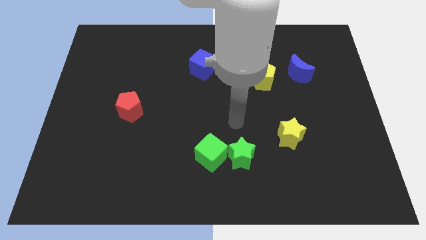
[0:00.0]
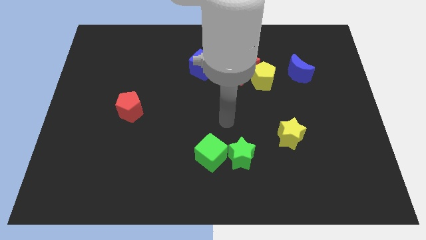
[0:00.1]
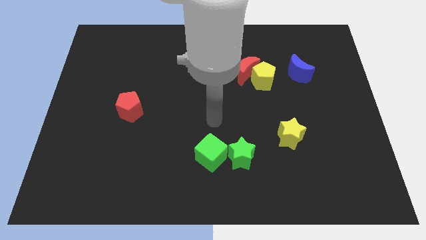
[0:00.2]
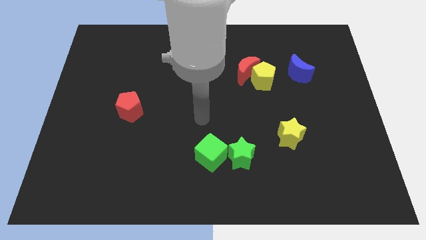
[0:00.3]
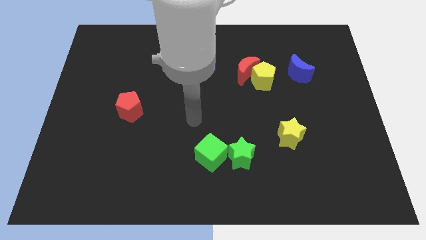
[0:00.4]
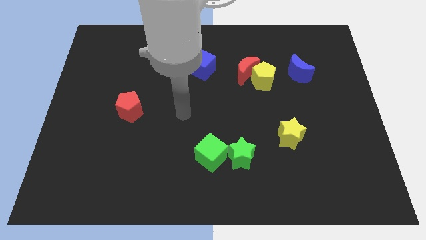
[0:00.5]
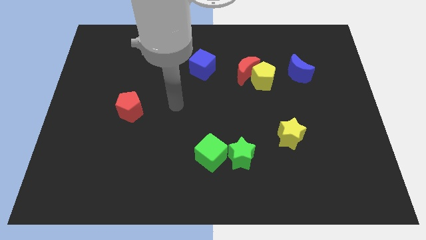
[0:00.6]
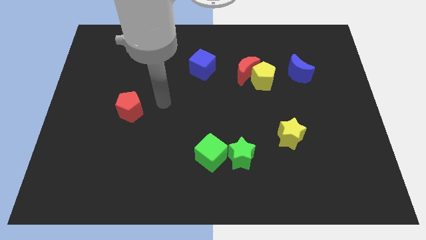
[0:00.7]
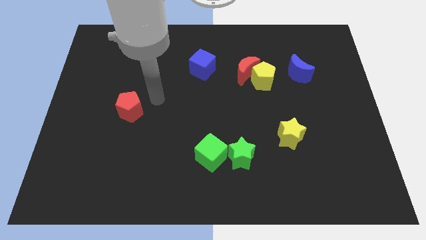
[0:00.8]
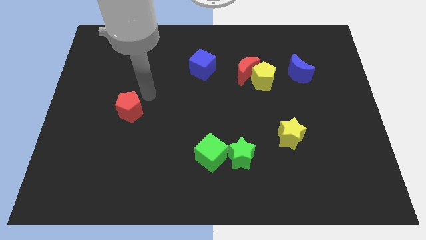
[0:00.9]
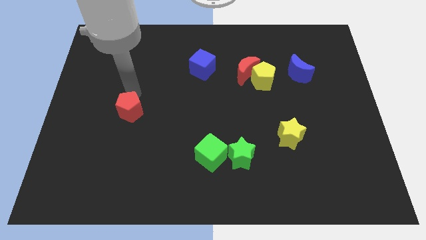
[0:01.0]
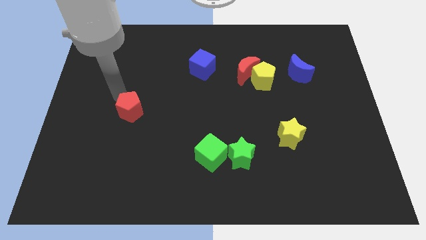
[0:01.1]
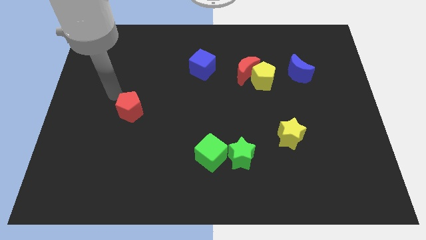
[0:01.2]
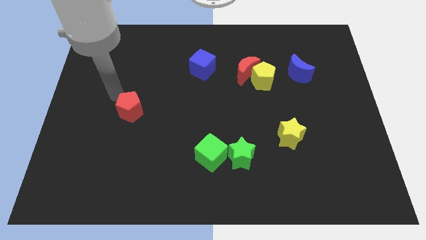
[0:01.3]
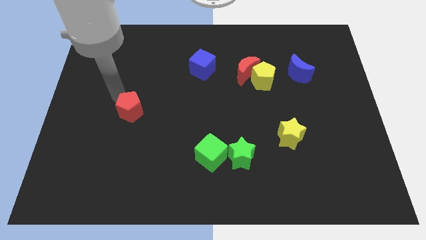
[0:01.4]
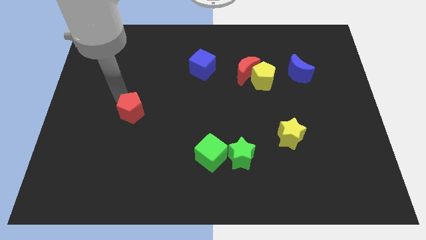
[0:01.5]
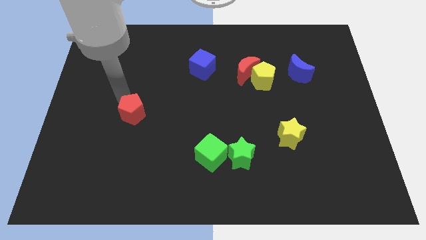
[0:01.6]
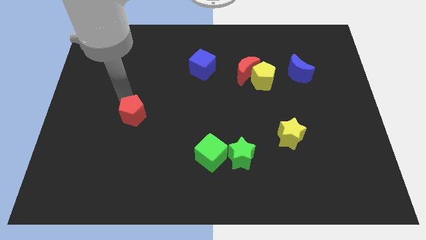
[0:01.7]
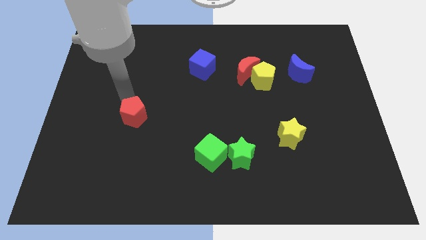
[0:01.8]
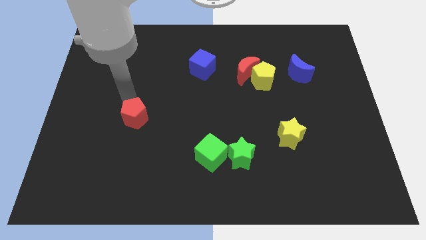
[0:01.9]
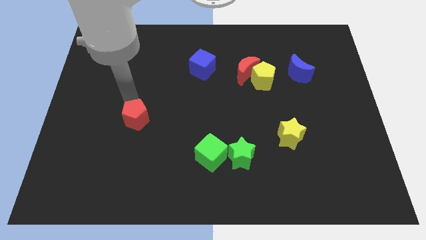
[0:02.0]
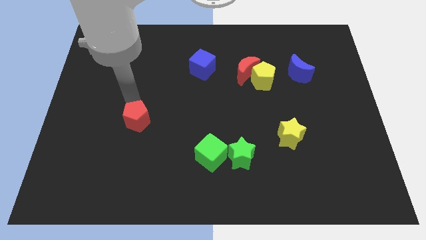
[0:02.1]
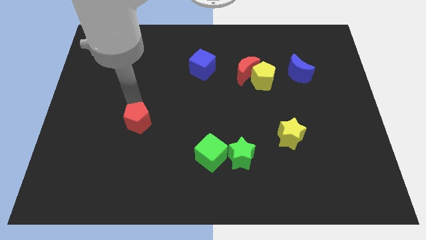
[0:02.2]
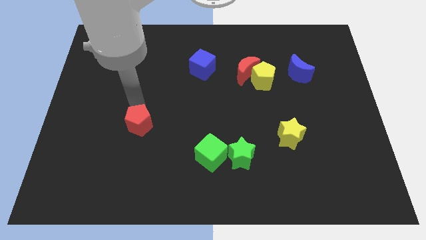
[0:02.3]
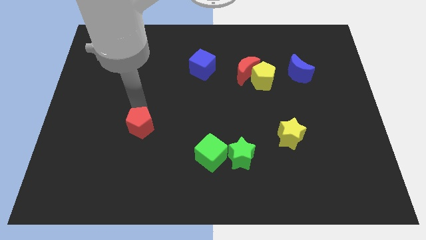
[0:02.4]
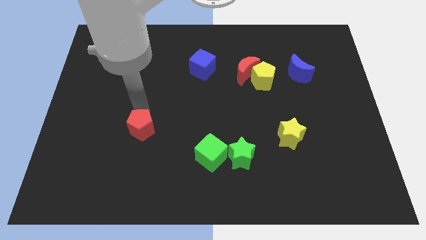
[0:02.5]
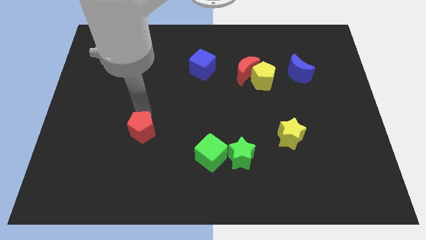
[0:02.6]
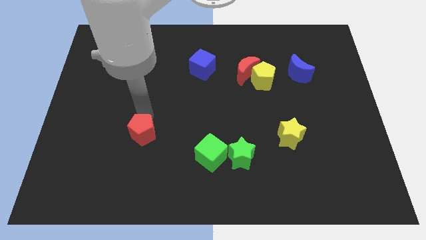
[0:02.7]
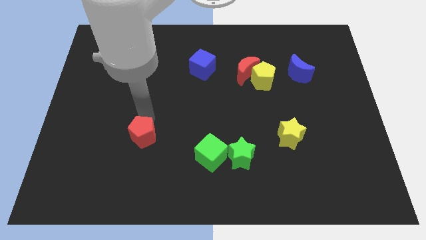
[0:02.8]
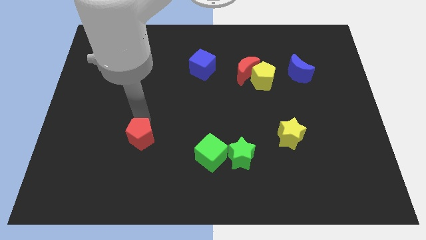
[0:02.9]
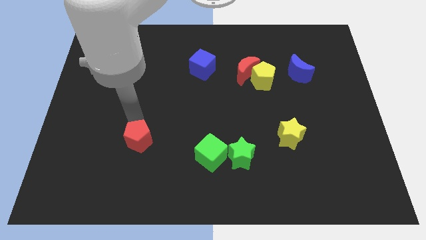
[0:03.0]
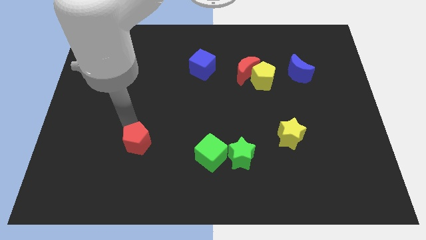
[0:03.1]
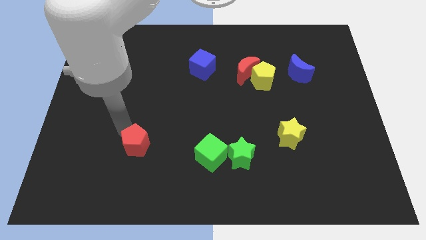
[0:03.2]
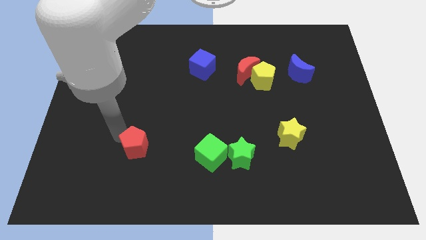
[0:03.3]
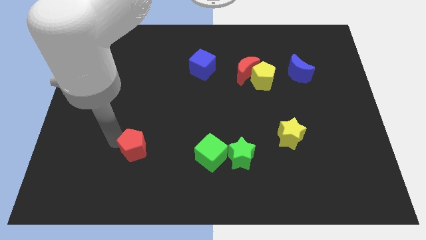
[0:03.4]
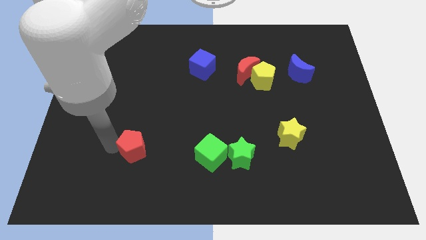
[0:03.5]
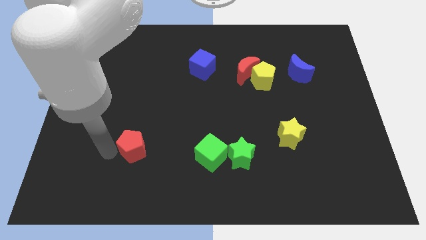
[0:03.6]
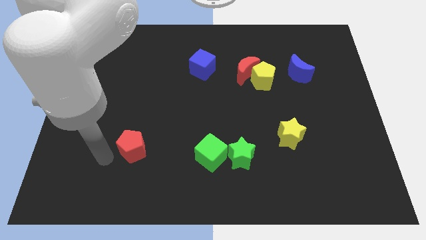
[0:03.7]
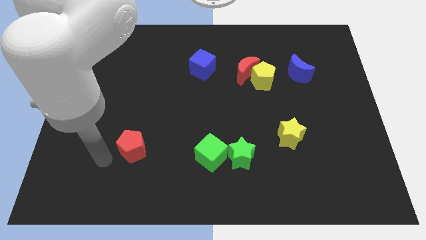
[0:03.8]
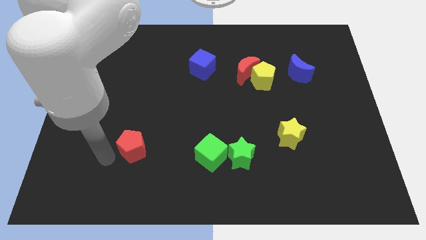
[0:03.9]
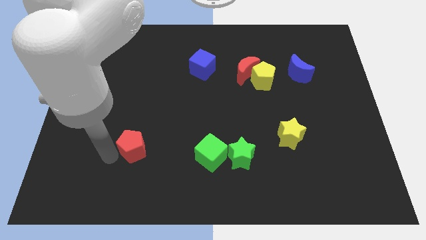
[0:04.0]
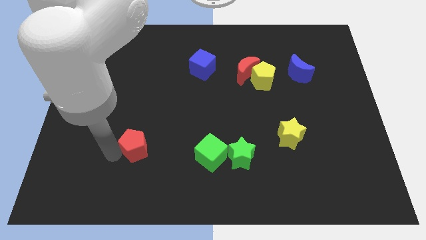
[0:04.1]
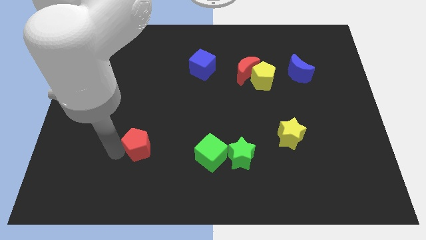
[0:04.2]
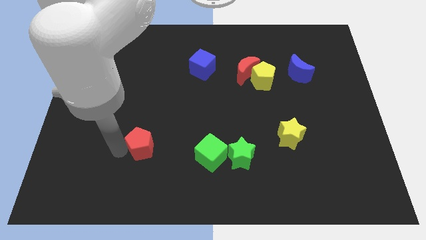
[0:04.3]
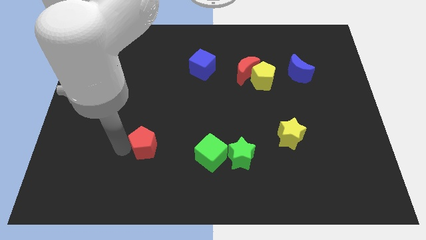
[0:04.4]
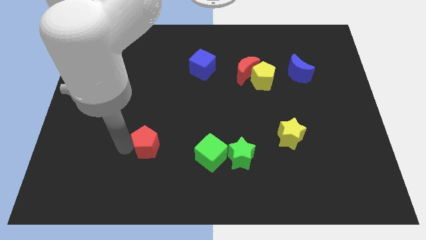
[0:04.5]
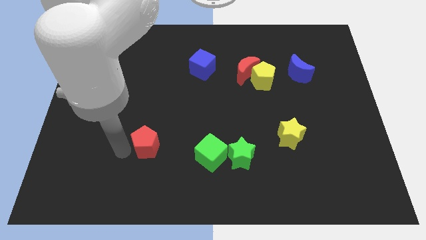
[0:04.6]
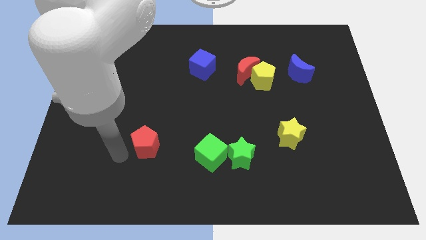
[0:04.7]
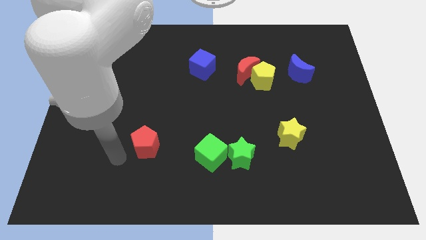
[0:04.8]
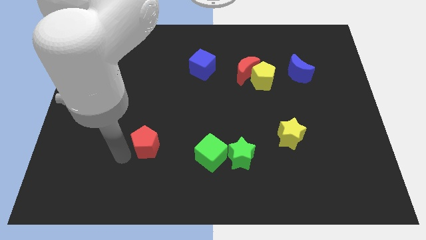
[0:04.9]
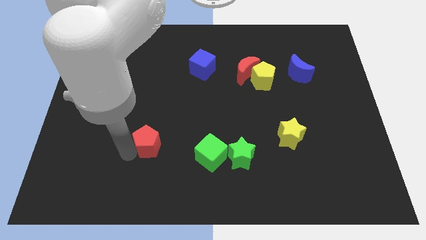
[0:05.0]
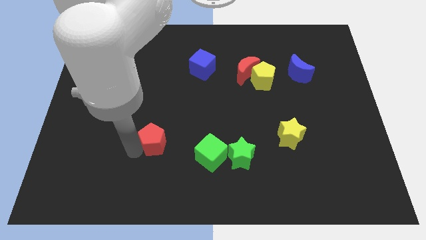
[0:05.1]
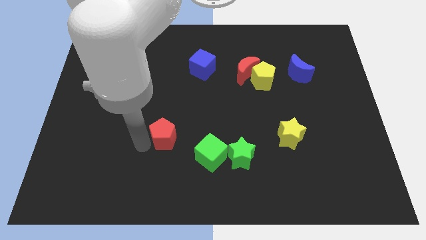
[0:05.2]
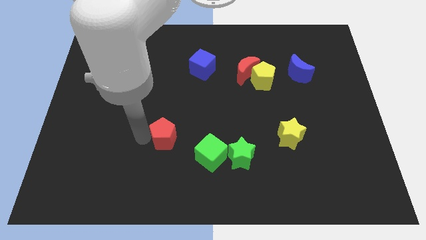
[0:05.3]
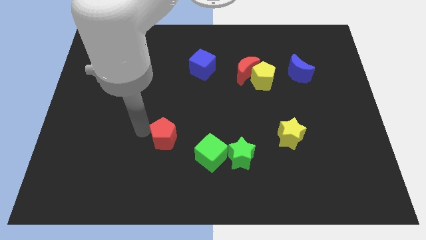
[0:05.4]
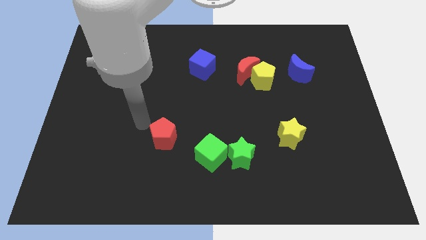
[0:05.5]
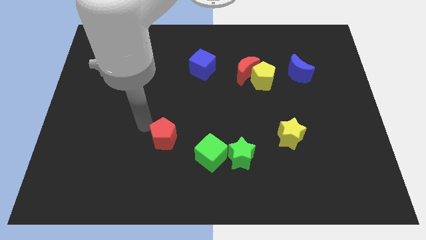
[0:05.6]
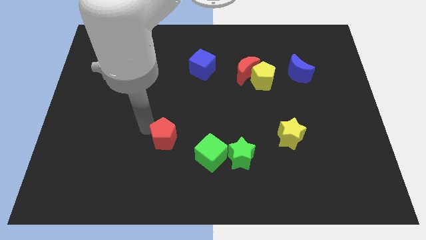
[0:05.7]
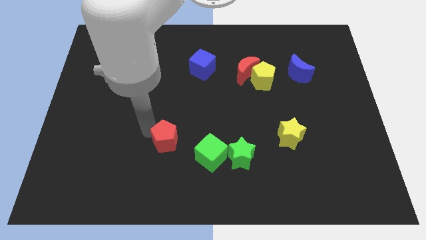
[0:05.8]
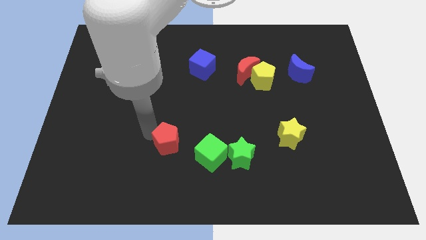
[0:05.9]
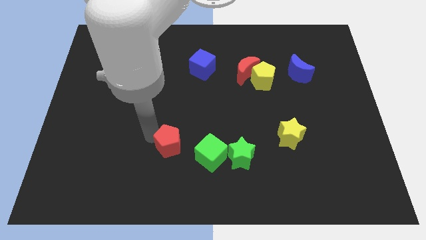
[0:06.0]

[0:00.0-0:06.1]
put the red pentagon to the left of the green star

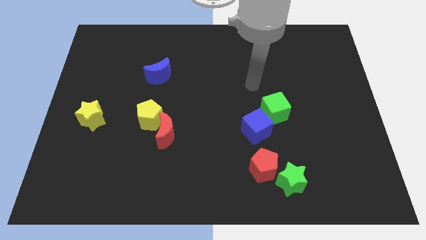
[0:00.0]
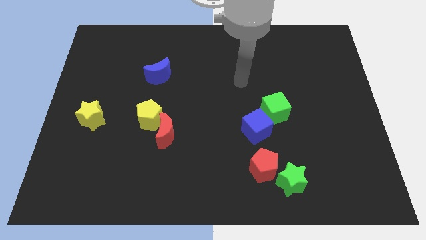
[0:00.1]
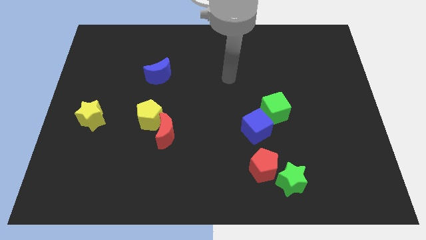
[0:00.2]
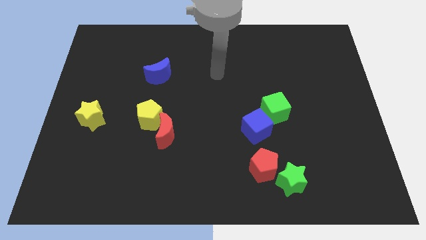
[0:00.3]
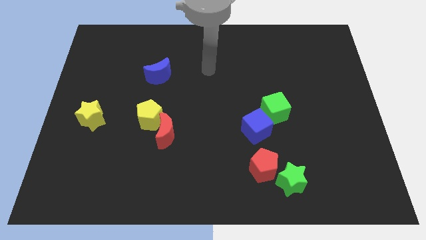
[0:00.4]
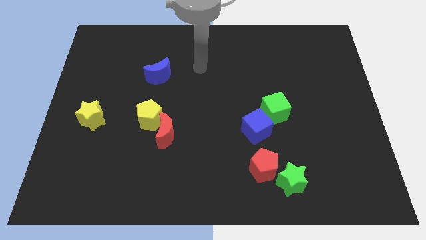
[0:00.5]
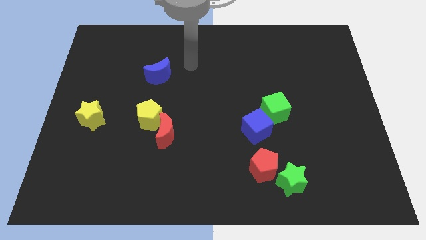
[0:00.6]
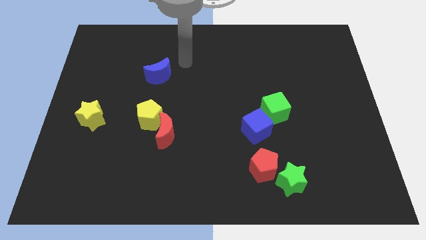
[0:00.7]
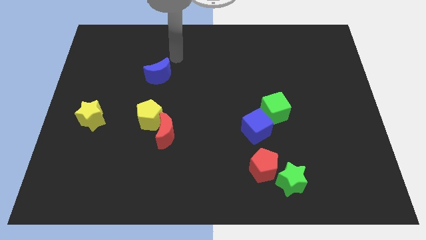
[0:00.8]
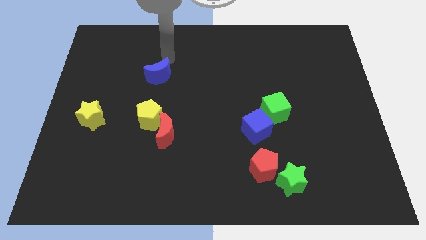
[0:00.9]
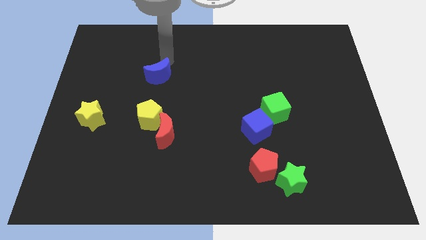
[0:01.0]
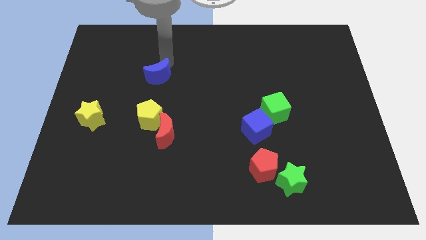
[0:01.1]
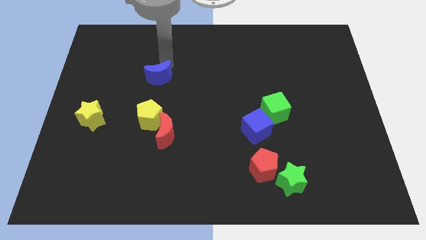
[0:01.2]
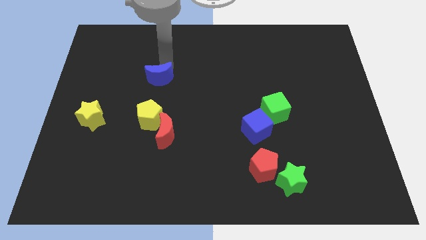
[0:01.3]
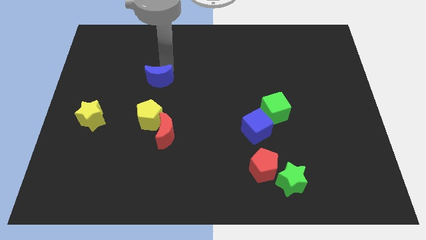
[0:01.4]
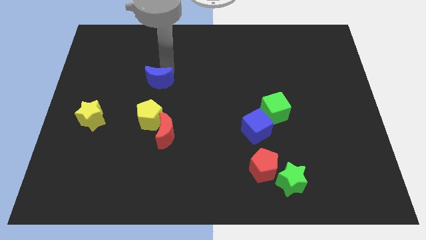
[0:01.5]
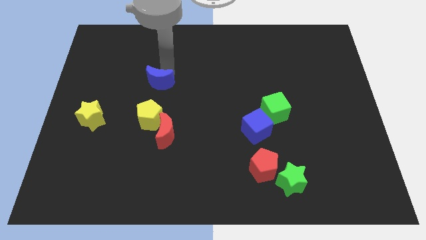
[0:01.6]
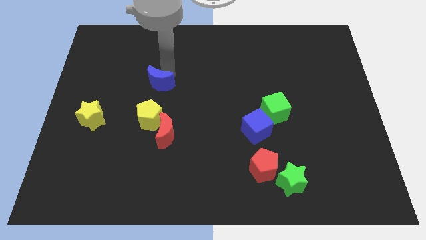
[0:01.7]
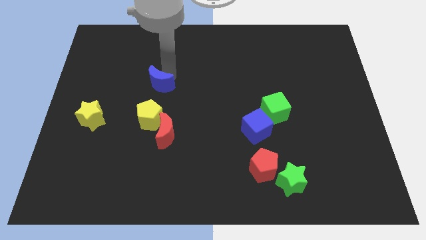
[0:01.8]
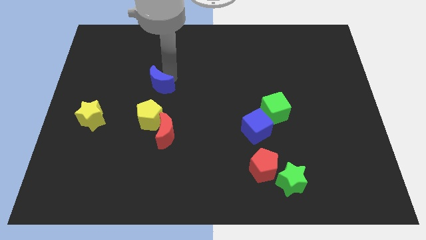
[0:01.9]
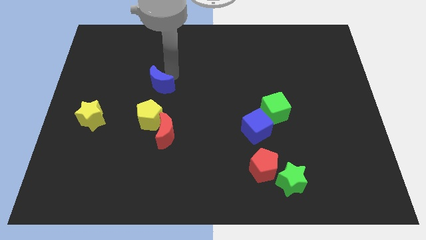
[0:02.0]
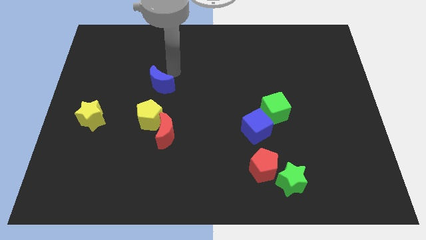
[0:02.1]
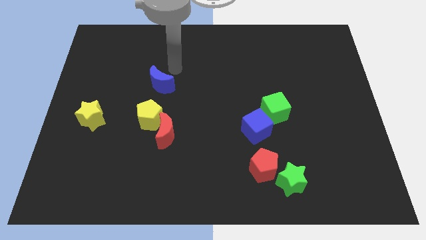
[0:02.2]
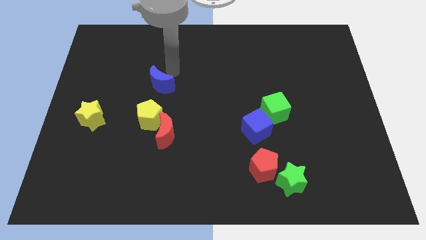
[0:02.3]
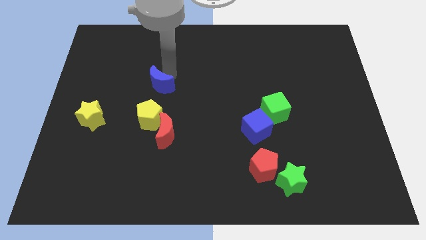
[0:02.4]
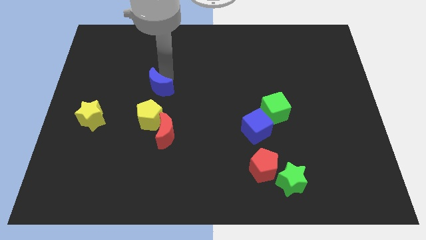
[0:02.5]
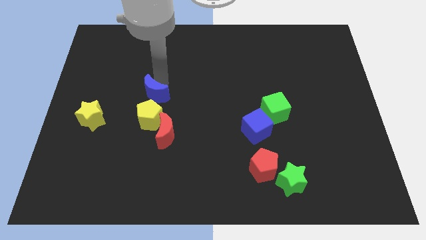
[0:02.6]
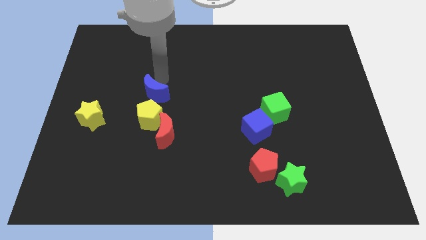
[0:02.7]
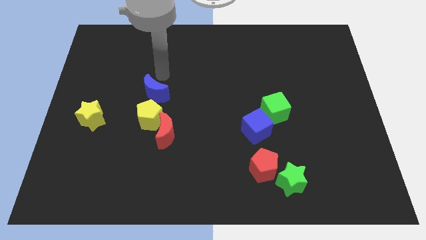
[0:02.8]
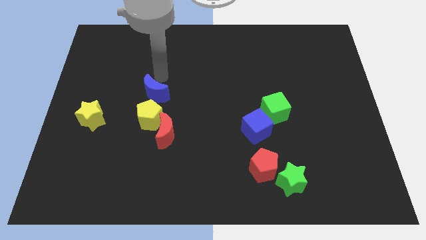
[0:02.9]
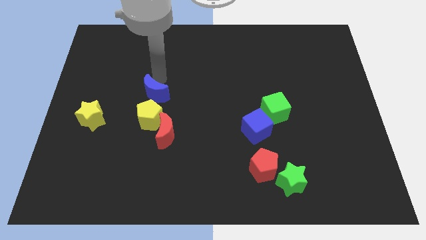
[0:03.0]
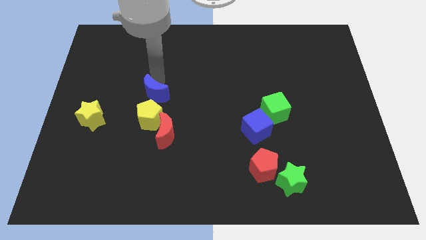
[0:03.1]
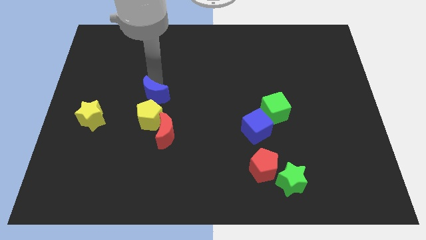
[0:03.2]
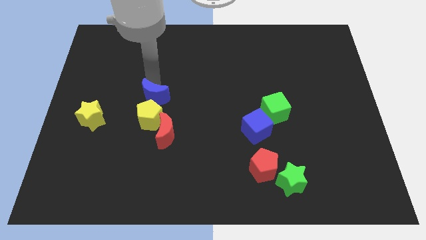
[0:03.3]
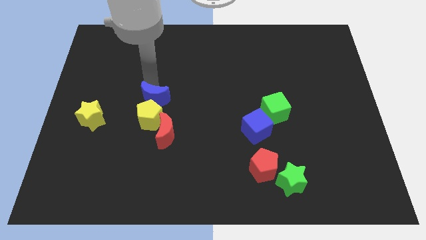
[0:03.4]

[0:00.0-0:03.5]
slide the blue moon to the top left side of the red moon
